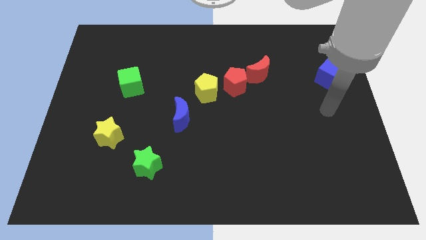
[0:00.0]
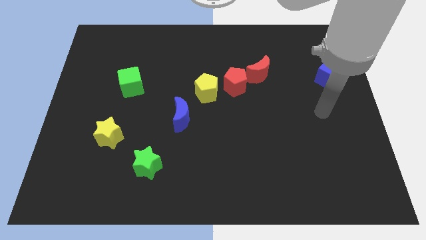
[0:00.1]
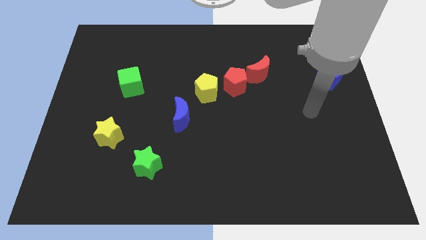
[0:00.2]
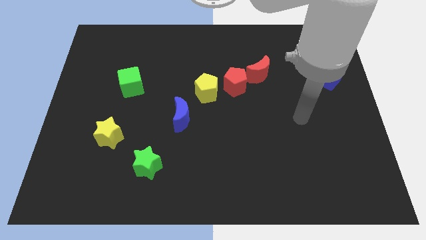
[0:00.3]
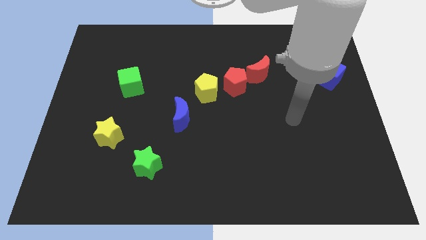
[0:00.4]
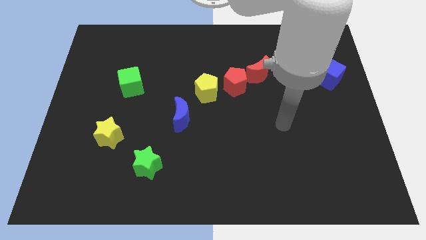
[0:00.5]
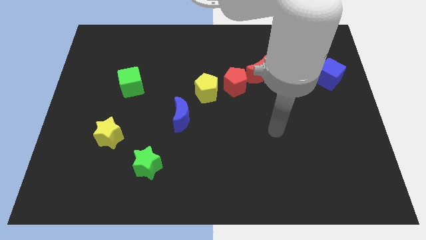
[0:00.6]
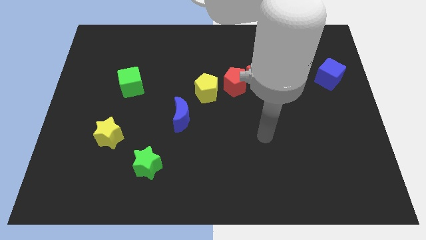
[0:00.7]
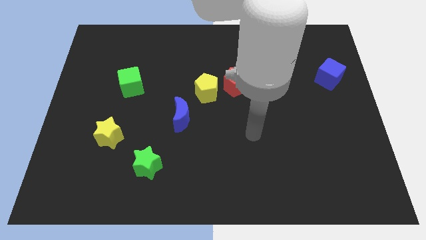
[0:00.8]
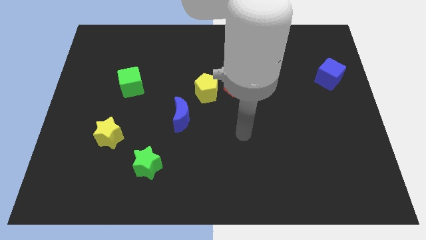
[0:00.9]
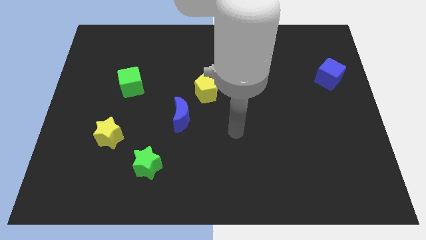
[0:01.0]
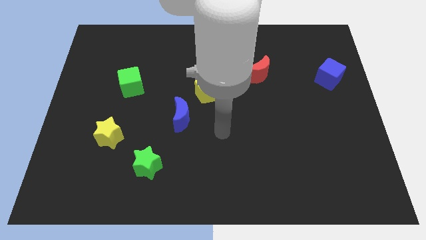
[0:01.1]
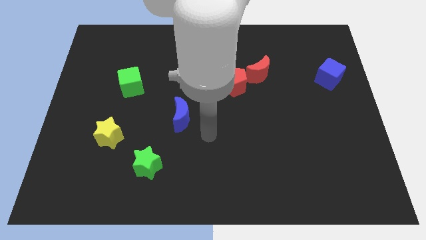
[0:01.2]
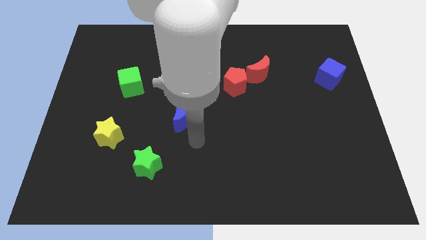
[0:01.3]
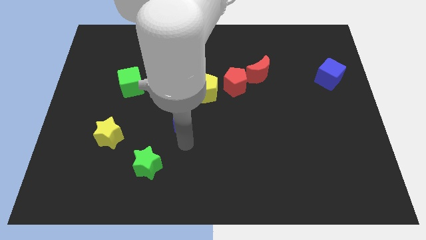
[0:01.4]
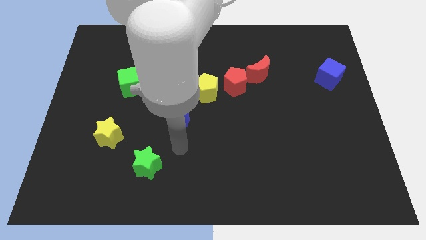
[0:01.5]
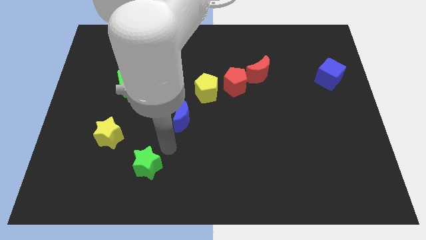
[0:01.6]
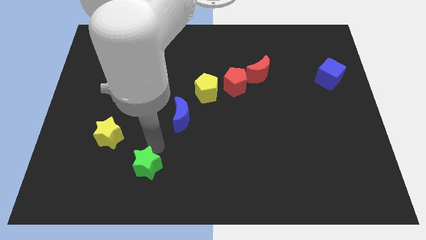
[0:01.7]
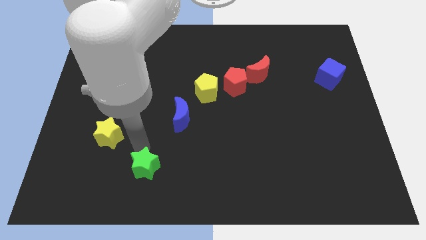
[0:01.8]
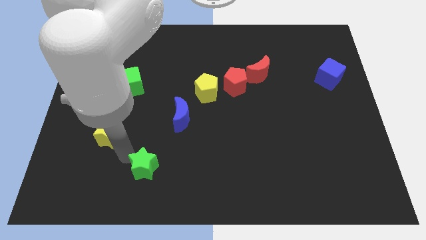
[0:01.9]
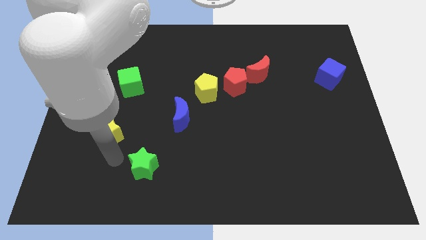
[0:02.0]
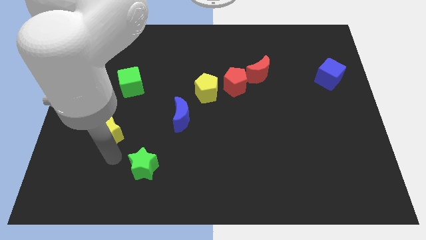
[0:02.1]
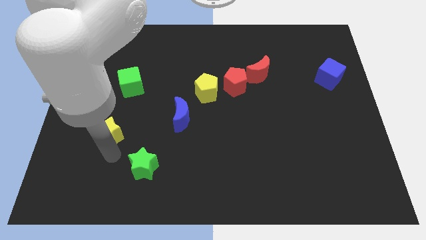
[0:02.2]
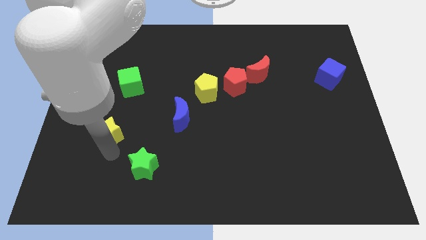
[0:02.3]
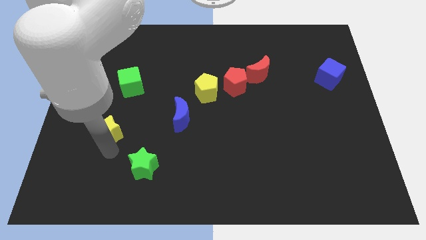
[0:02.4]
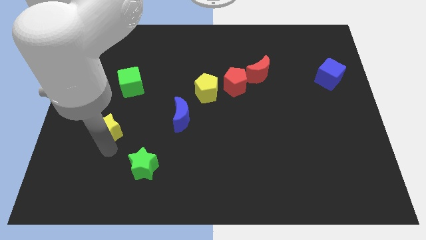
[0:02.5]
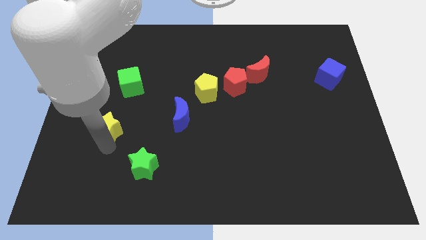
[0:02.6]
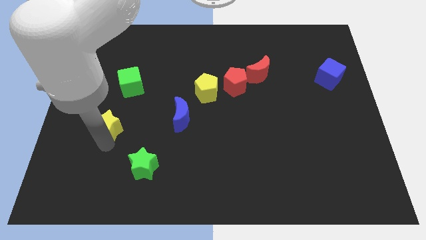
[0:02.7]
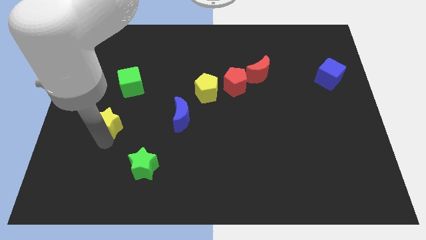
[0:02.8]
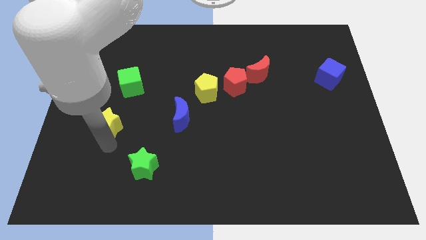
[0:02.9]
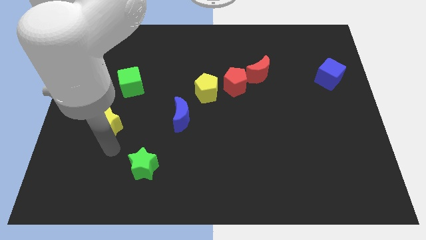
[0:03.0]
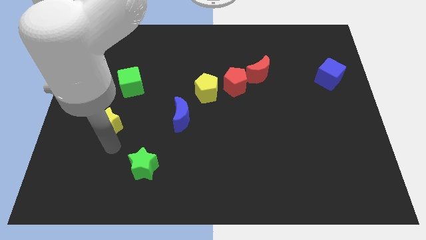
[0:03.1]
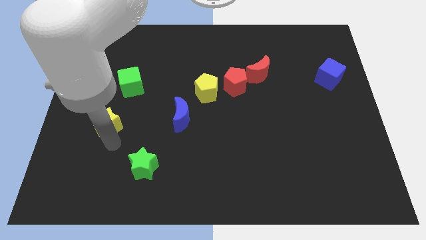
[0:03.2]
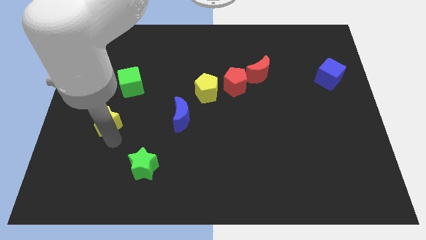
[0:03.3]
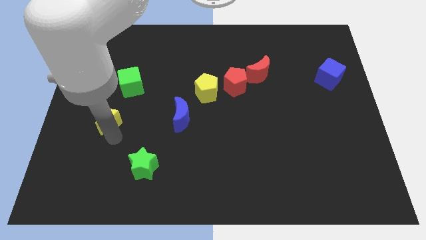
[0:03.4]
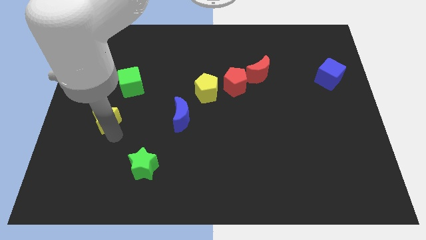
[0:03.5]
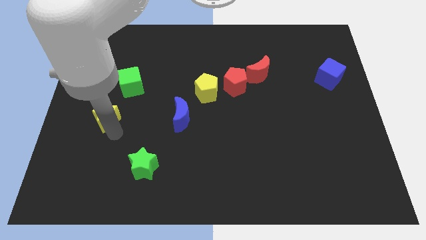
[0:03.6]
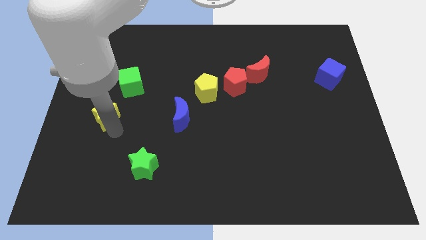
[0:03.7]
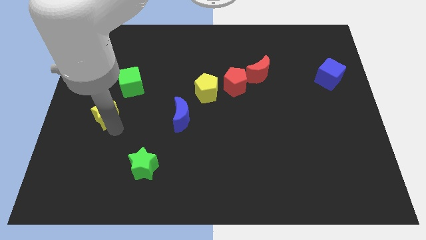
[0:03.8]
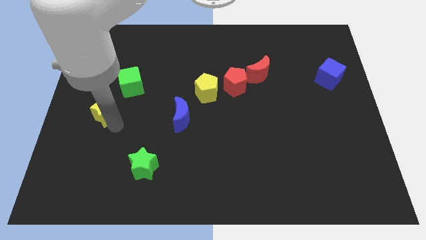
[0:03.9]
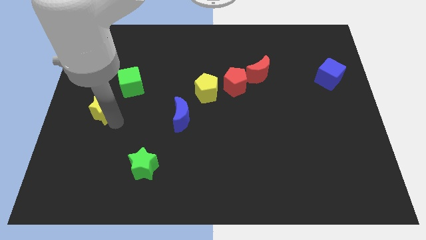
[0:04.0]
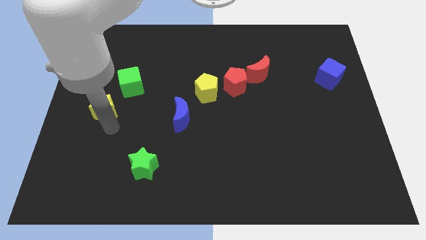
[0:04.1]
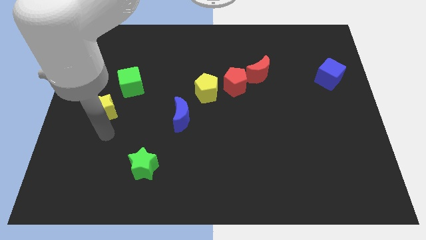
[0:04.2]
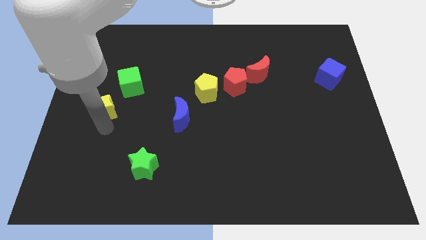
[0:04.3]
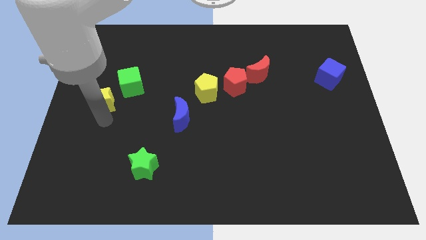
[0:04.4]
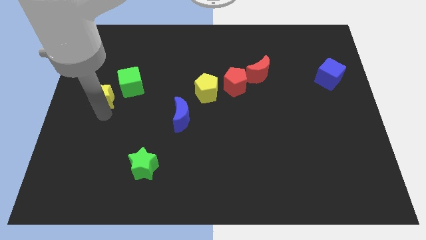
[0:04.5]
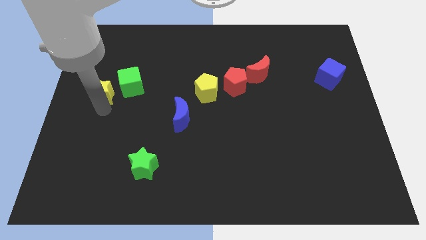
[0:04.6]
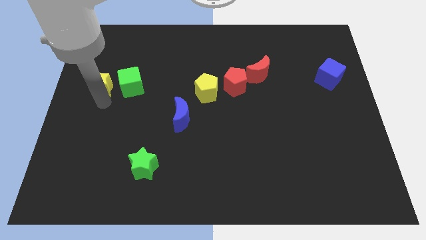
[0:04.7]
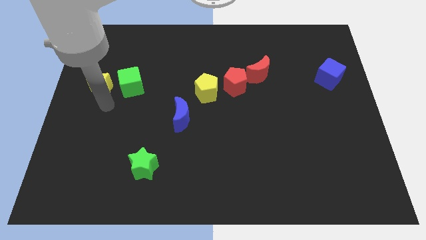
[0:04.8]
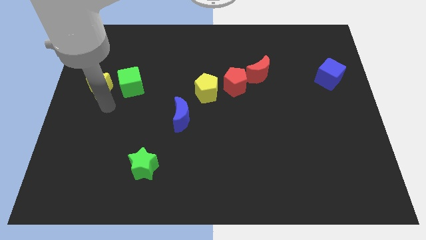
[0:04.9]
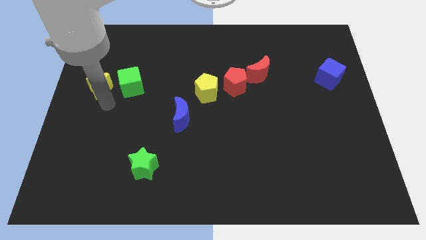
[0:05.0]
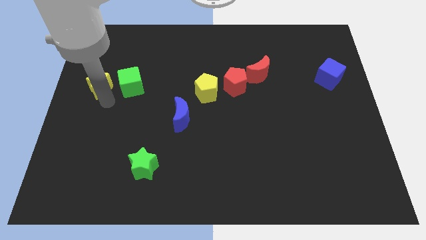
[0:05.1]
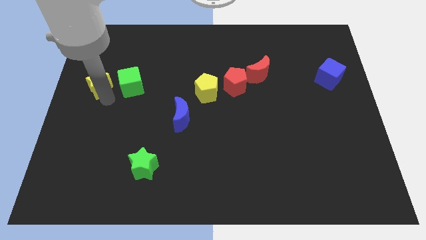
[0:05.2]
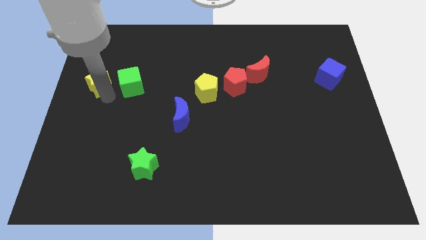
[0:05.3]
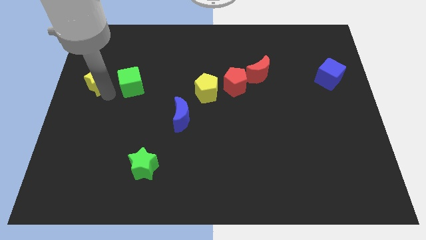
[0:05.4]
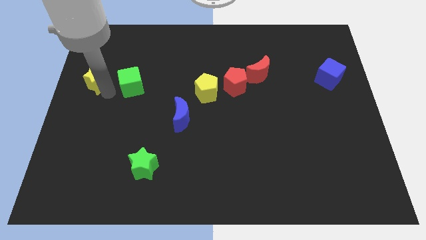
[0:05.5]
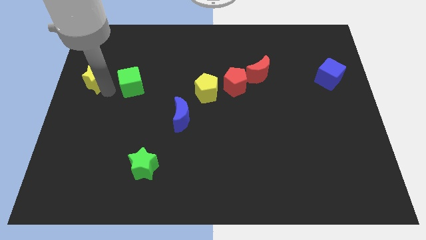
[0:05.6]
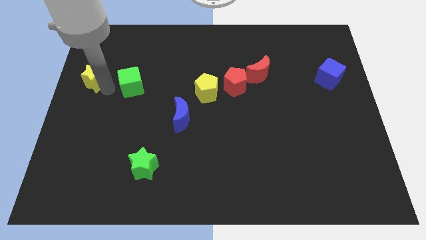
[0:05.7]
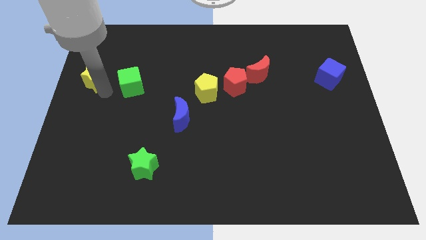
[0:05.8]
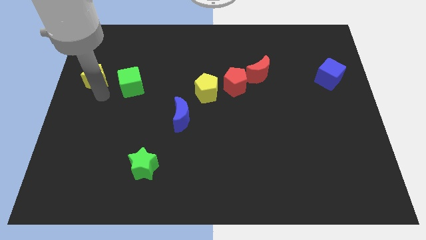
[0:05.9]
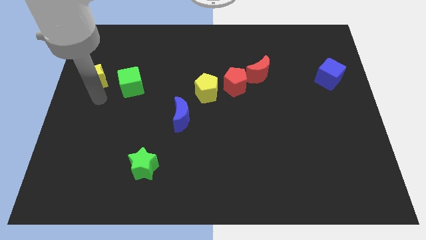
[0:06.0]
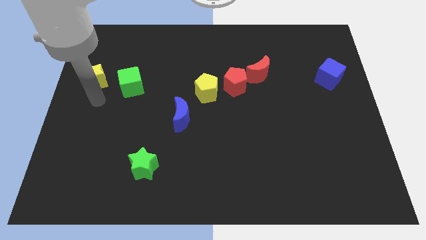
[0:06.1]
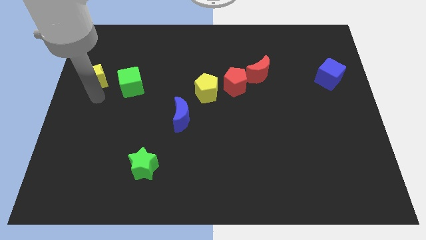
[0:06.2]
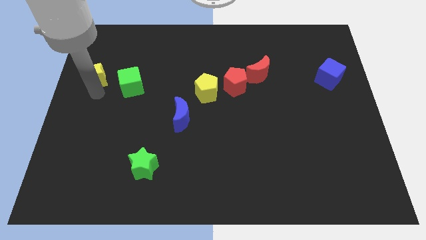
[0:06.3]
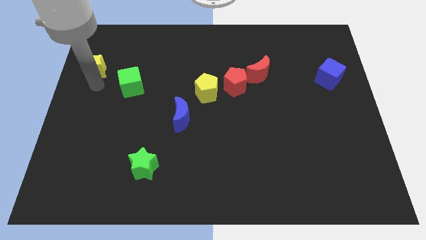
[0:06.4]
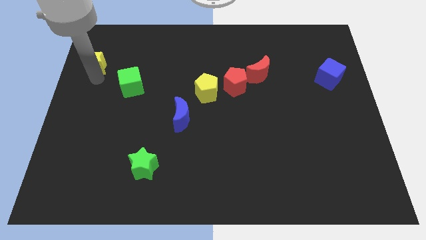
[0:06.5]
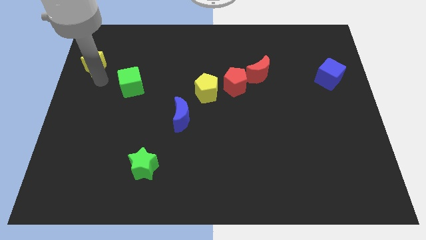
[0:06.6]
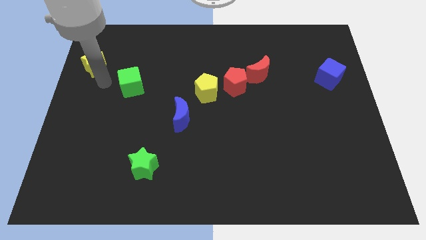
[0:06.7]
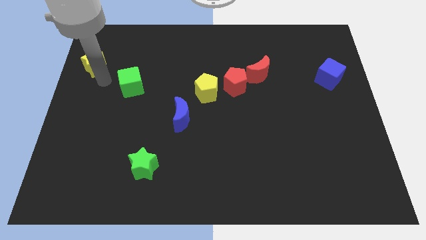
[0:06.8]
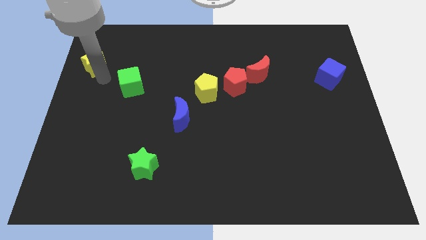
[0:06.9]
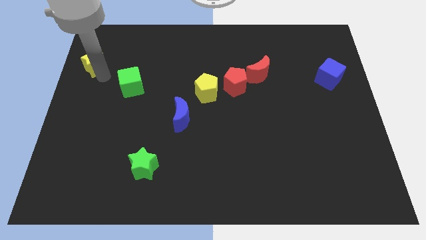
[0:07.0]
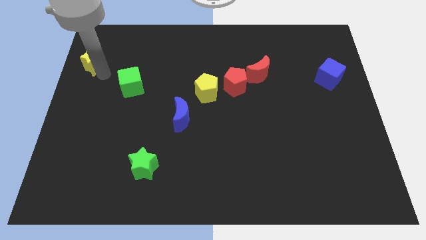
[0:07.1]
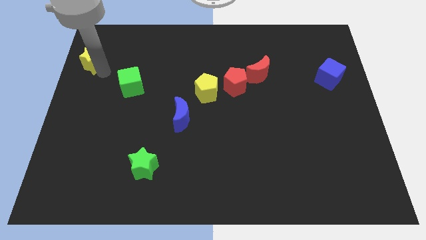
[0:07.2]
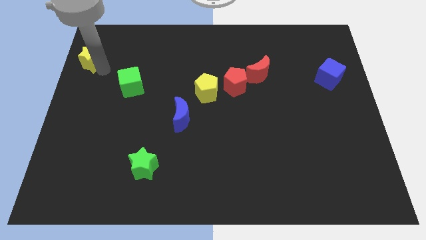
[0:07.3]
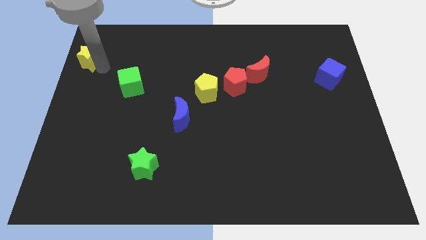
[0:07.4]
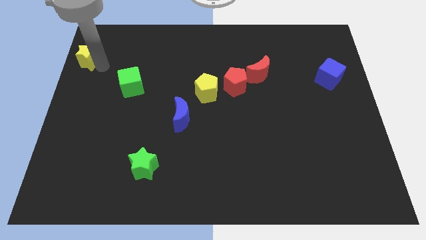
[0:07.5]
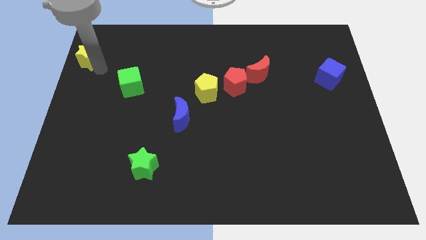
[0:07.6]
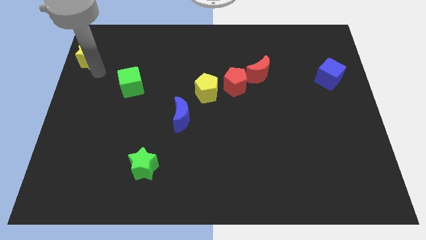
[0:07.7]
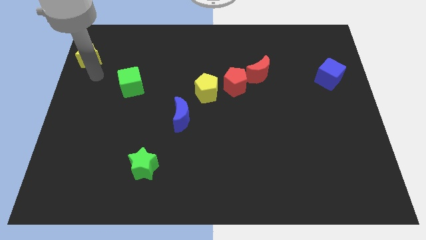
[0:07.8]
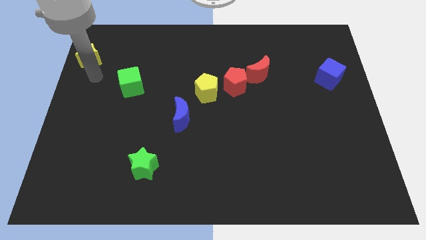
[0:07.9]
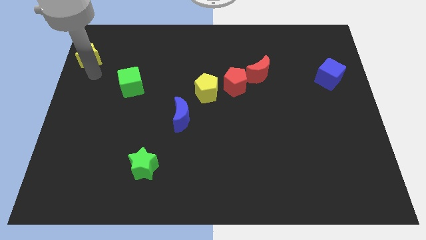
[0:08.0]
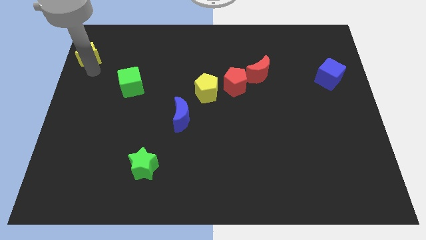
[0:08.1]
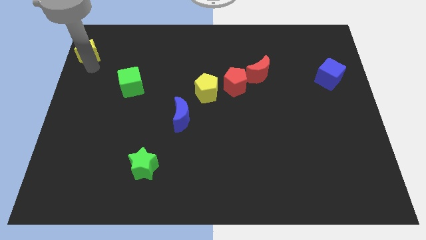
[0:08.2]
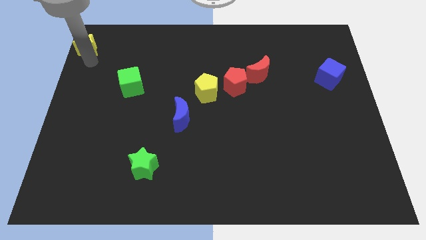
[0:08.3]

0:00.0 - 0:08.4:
push the yellow star to the top left of the board
